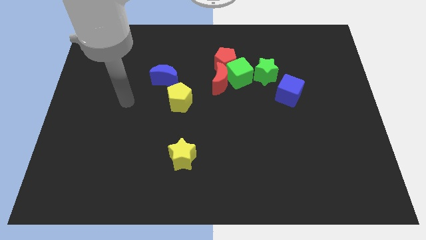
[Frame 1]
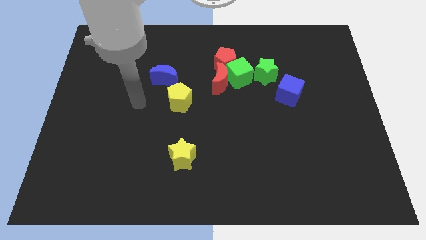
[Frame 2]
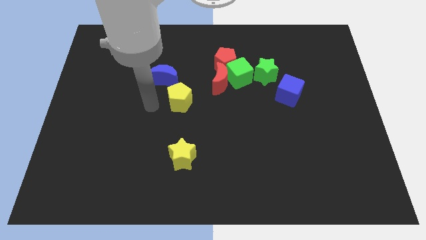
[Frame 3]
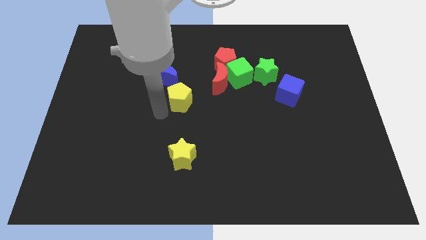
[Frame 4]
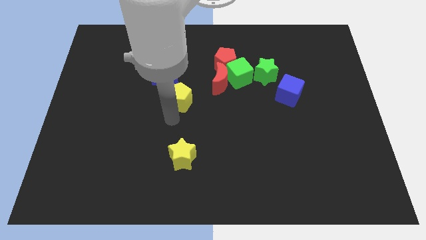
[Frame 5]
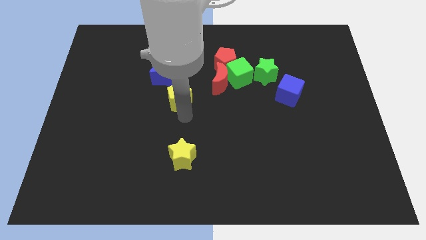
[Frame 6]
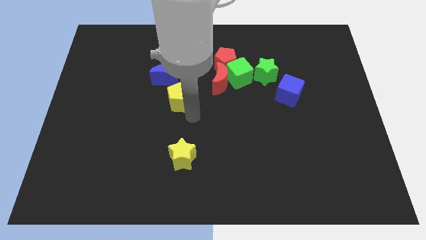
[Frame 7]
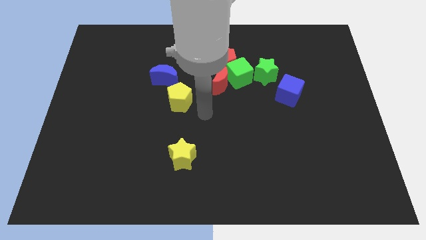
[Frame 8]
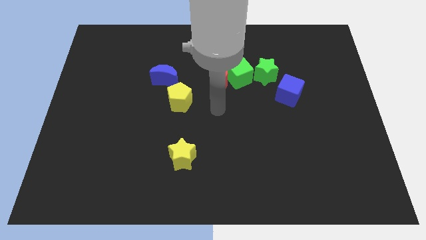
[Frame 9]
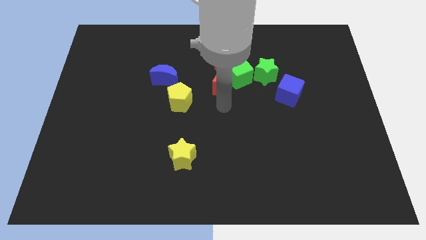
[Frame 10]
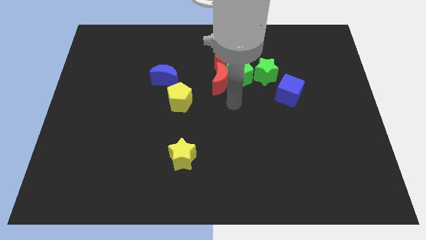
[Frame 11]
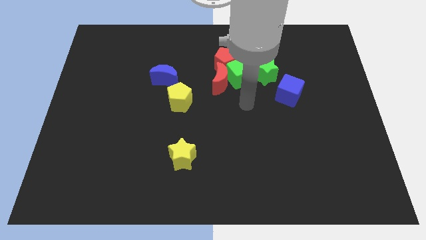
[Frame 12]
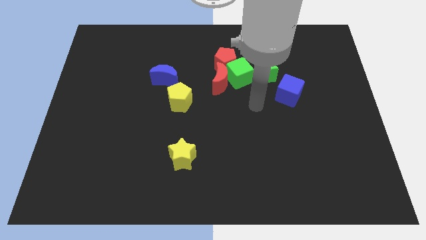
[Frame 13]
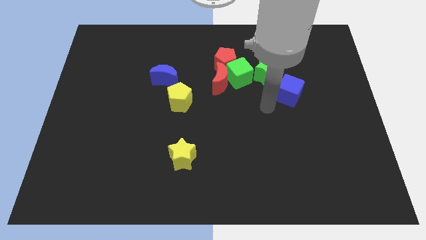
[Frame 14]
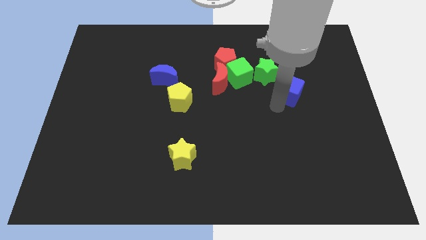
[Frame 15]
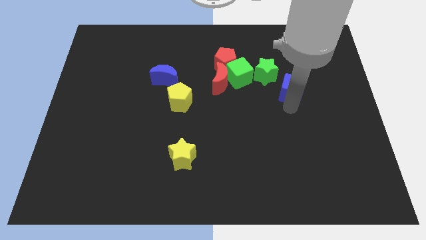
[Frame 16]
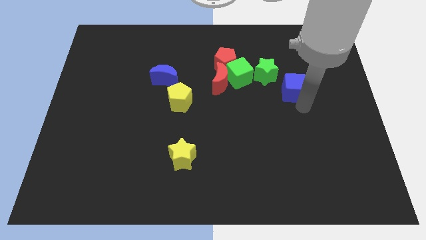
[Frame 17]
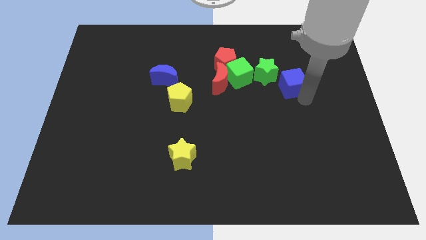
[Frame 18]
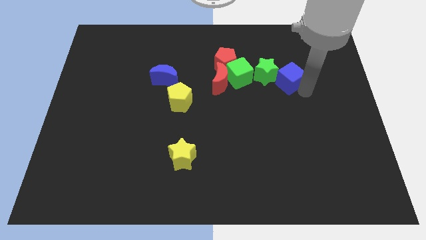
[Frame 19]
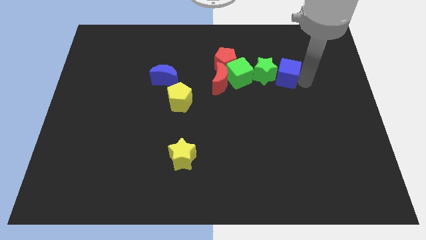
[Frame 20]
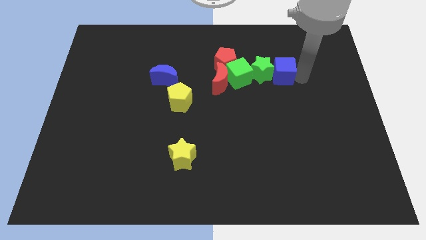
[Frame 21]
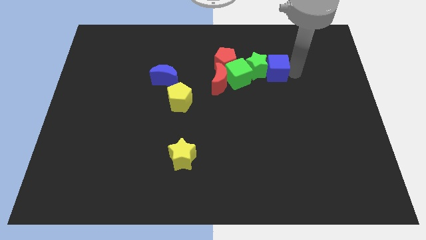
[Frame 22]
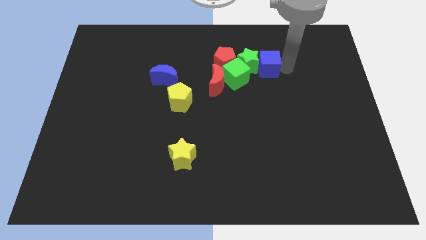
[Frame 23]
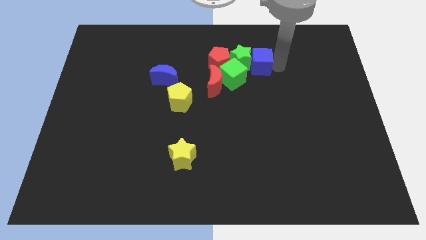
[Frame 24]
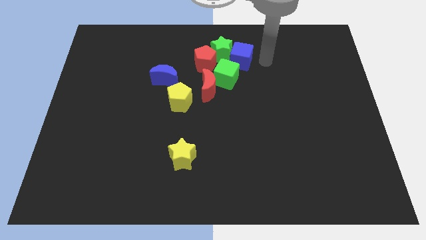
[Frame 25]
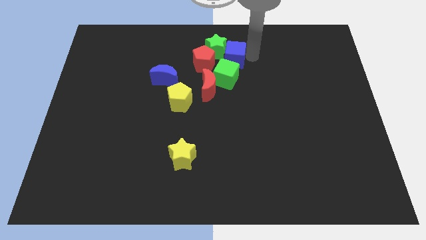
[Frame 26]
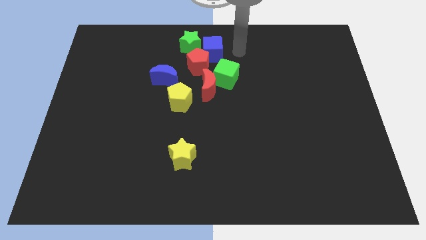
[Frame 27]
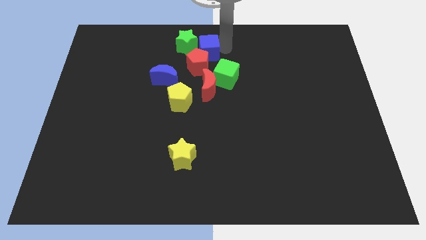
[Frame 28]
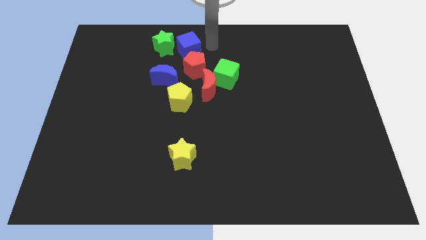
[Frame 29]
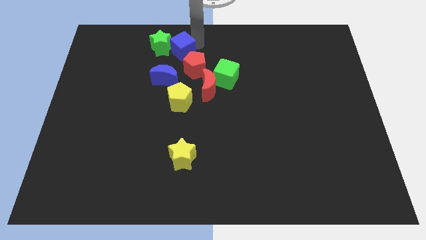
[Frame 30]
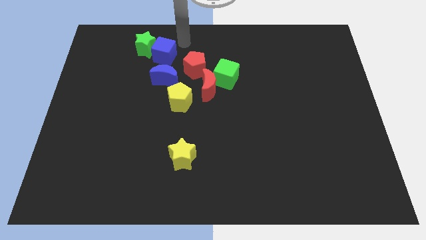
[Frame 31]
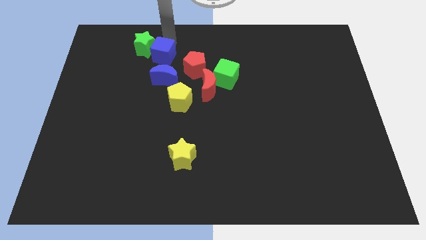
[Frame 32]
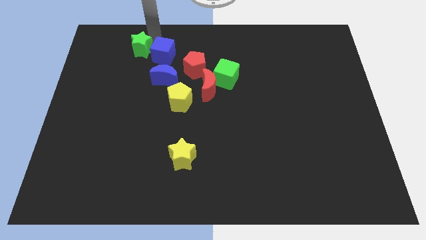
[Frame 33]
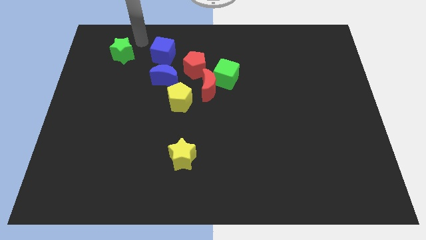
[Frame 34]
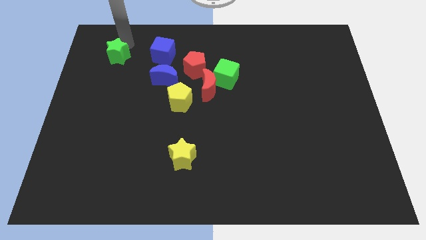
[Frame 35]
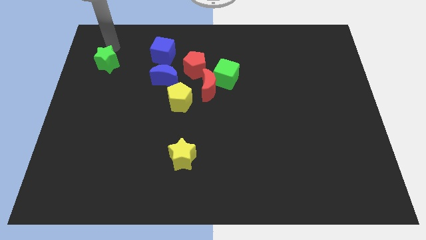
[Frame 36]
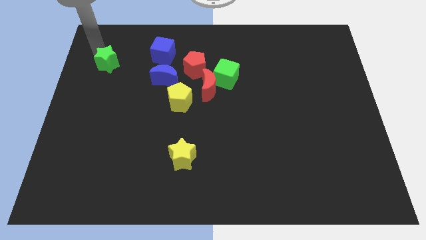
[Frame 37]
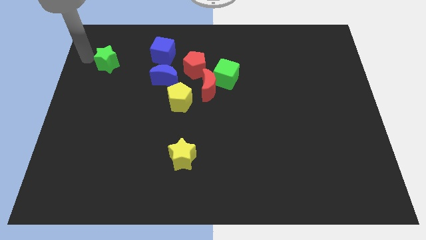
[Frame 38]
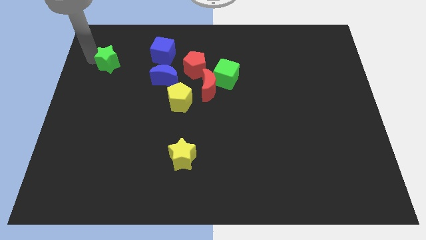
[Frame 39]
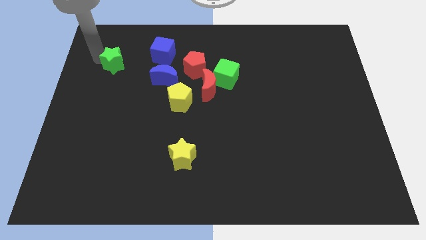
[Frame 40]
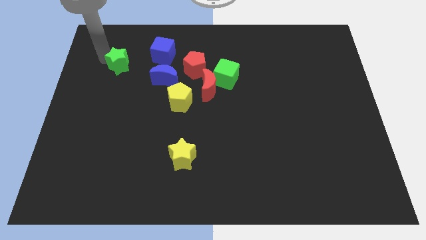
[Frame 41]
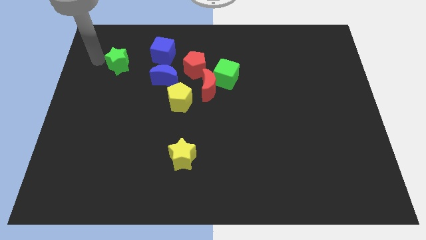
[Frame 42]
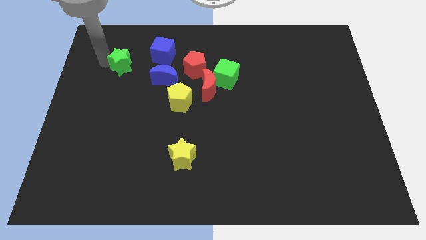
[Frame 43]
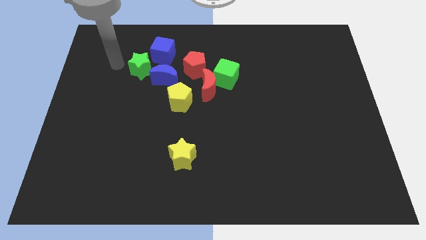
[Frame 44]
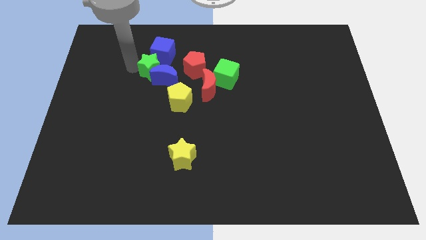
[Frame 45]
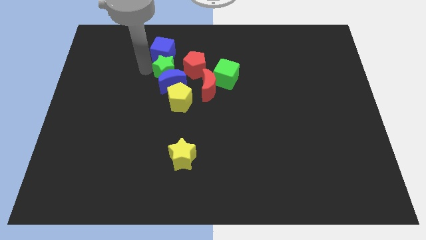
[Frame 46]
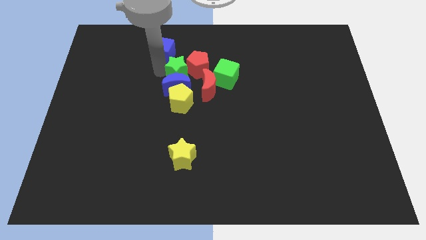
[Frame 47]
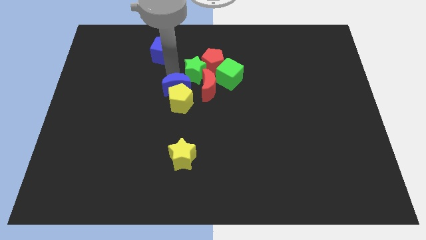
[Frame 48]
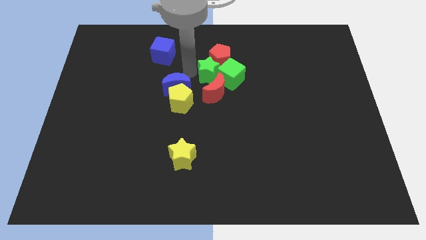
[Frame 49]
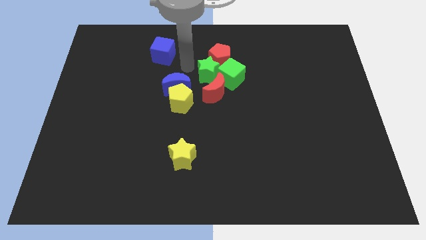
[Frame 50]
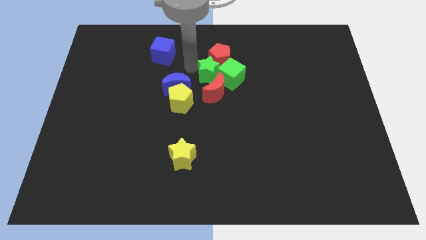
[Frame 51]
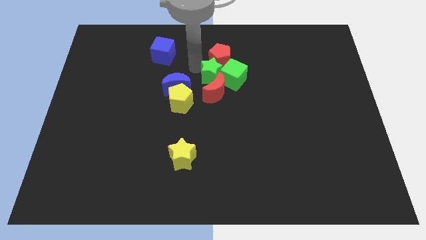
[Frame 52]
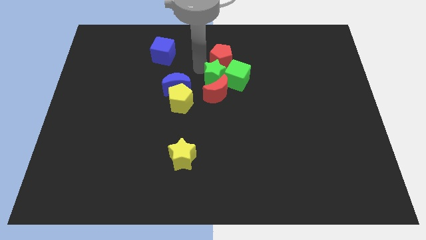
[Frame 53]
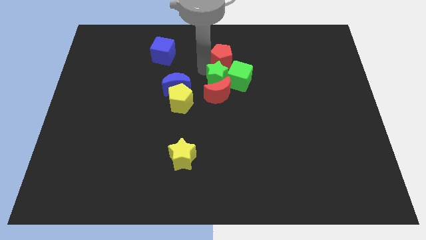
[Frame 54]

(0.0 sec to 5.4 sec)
push the green star a bit downwards and to the left diagonally

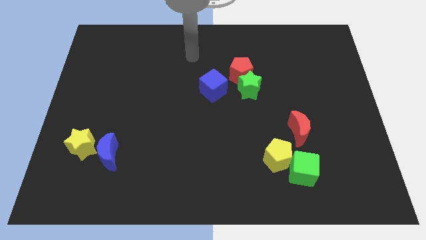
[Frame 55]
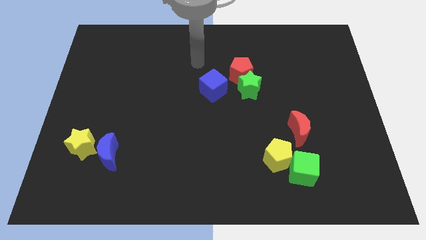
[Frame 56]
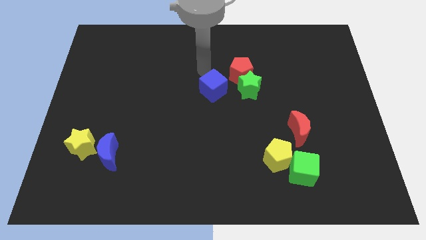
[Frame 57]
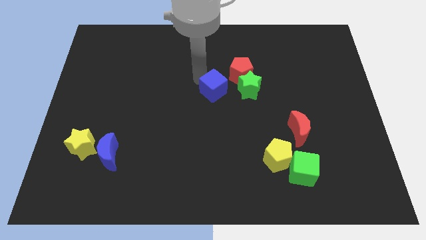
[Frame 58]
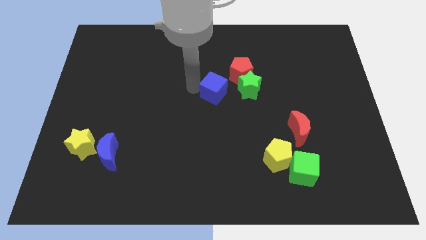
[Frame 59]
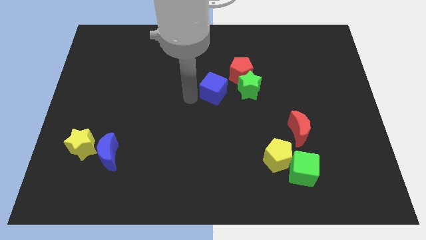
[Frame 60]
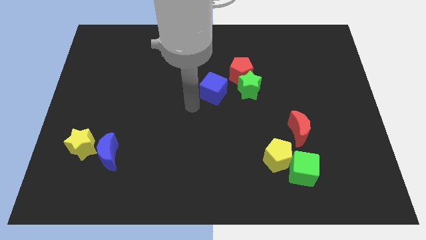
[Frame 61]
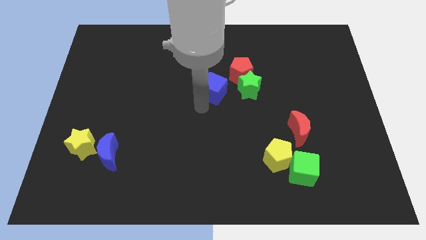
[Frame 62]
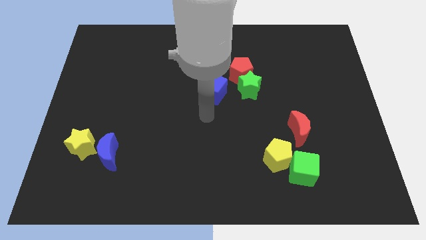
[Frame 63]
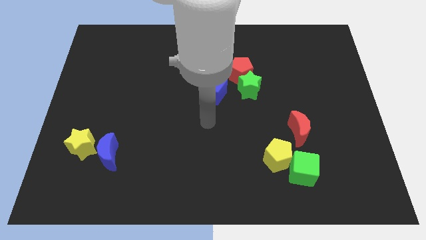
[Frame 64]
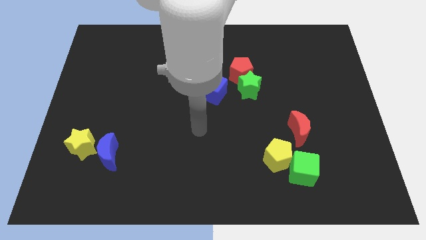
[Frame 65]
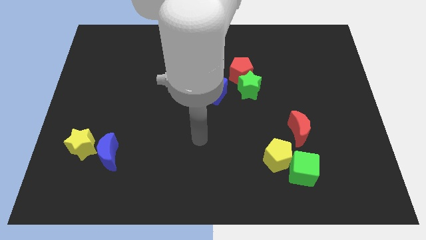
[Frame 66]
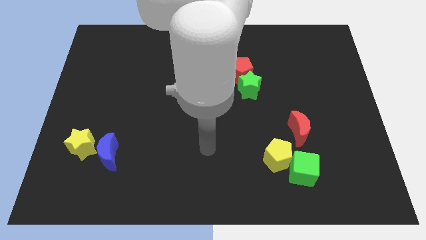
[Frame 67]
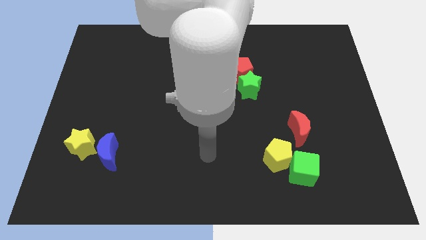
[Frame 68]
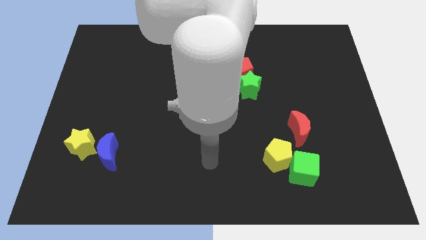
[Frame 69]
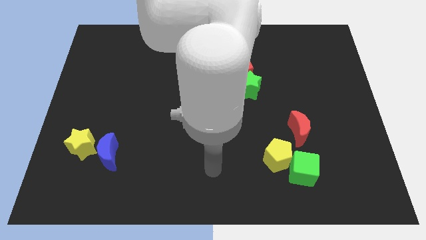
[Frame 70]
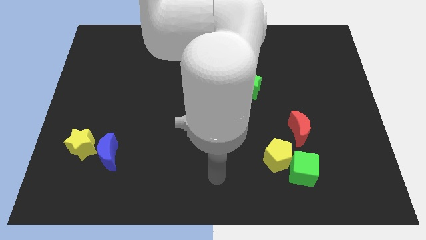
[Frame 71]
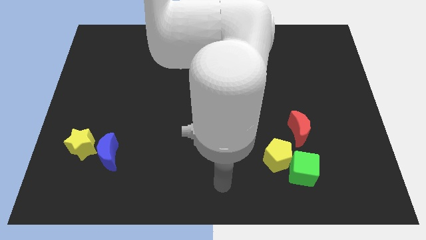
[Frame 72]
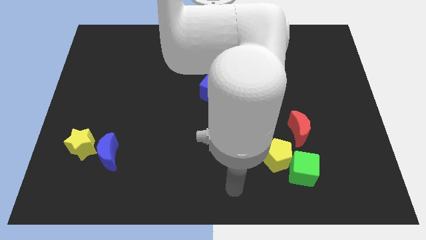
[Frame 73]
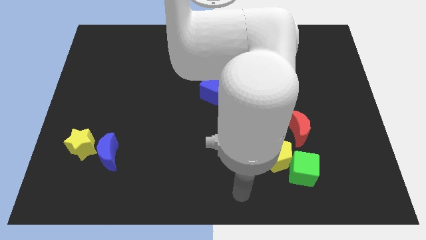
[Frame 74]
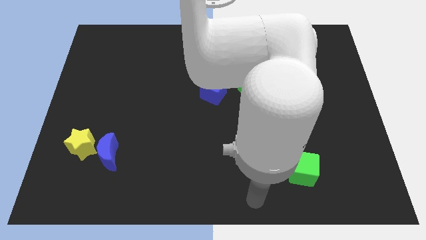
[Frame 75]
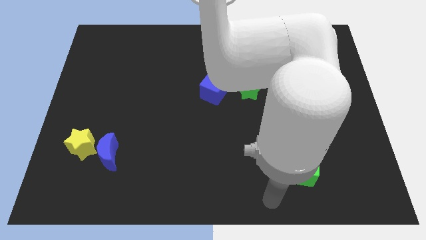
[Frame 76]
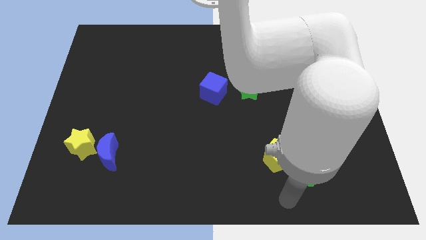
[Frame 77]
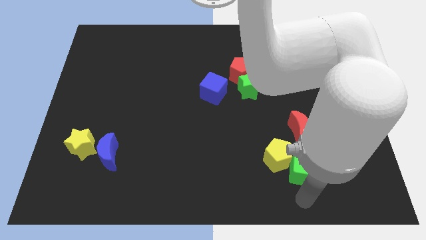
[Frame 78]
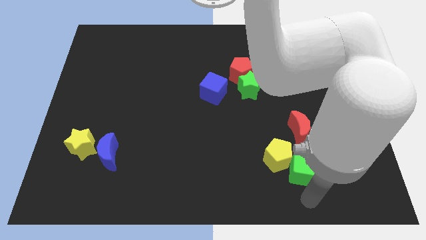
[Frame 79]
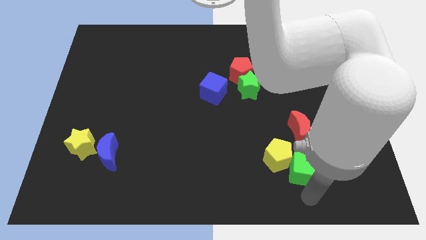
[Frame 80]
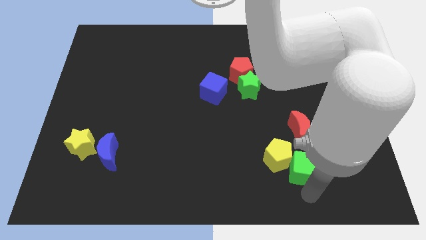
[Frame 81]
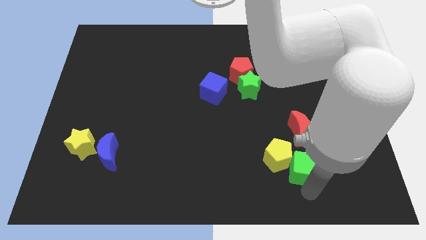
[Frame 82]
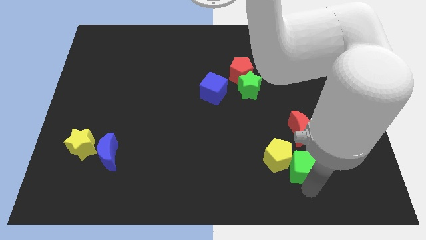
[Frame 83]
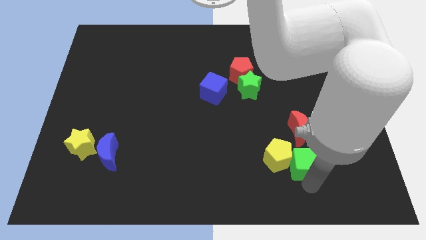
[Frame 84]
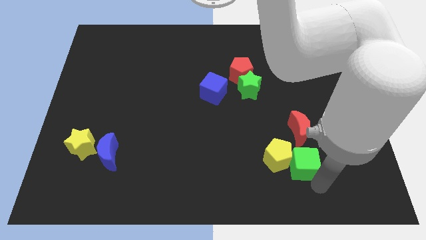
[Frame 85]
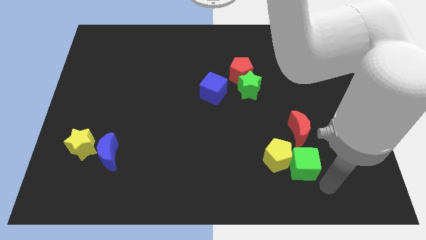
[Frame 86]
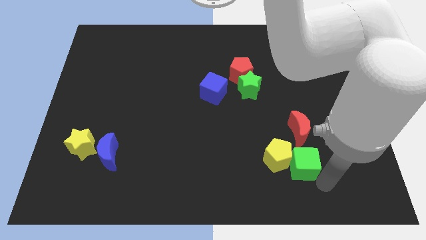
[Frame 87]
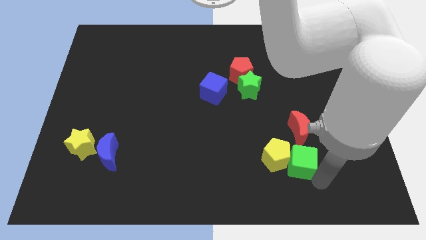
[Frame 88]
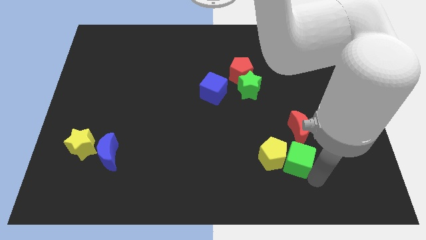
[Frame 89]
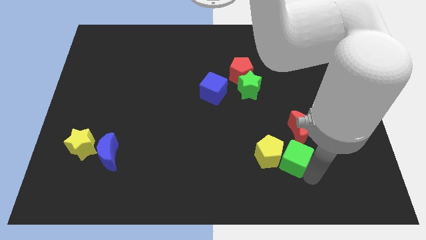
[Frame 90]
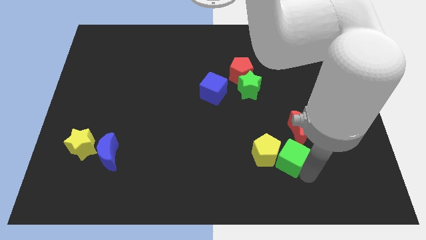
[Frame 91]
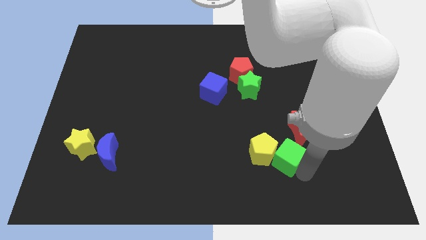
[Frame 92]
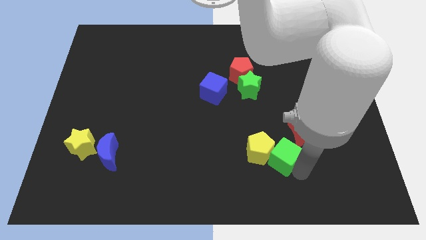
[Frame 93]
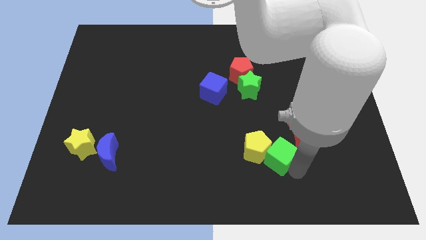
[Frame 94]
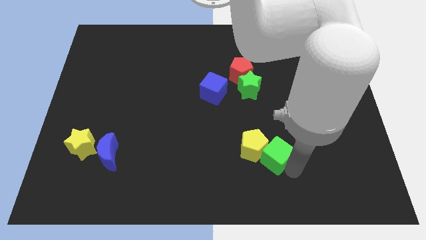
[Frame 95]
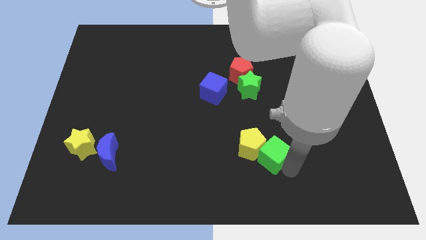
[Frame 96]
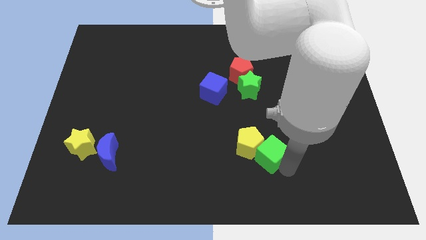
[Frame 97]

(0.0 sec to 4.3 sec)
slightly push the green cube up and to the left diagonally
